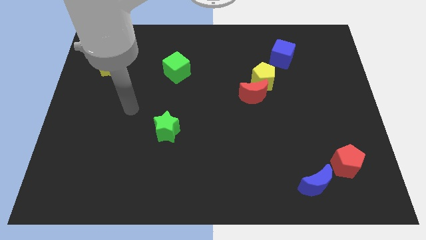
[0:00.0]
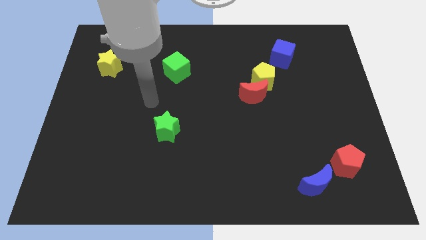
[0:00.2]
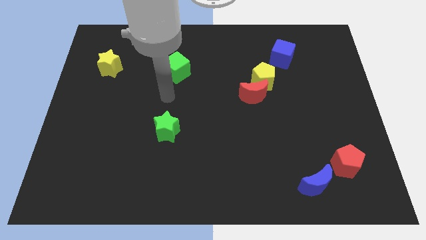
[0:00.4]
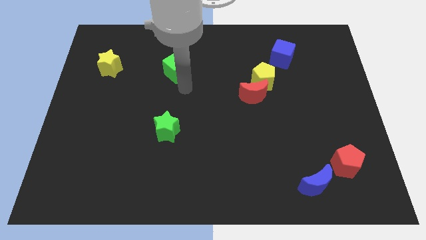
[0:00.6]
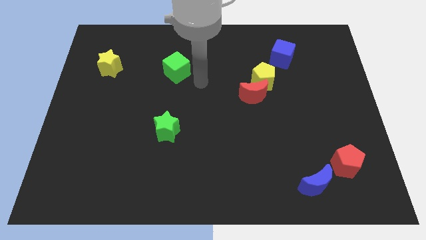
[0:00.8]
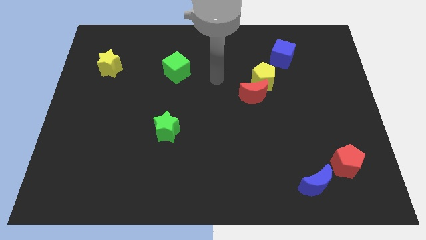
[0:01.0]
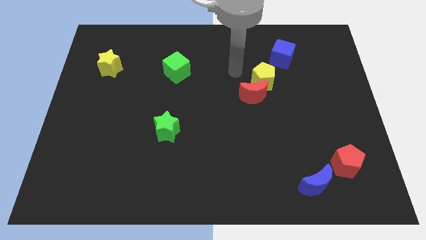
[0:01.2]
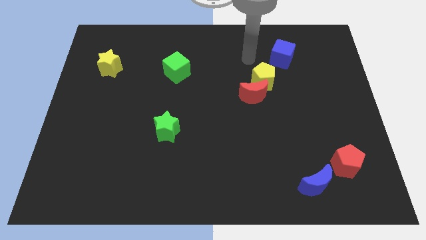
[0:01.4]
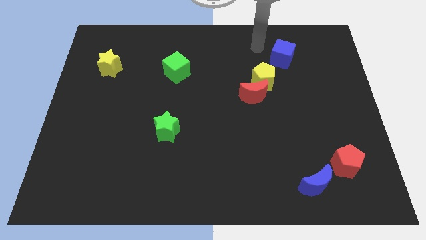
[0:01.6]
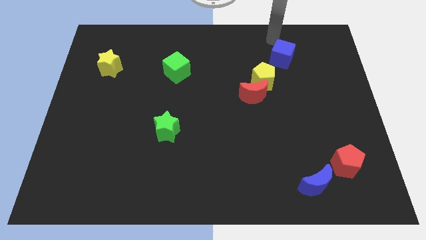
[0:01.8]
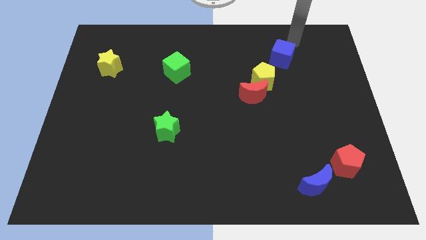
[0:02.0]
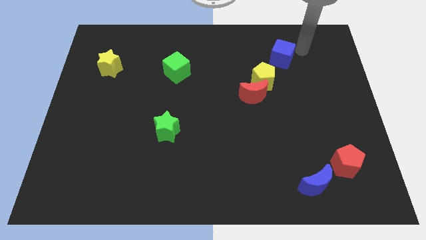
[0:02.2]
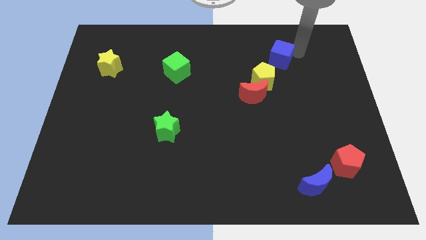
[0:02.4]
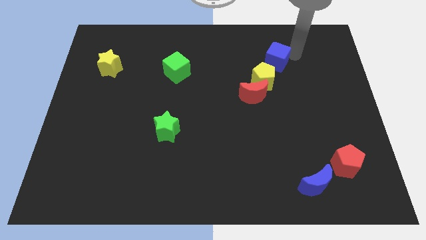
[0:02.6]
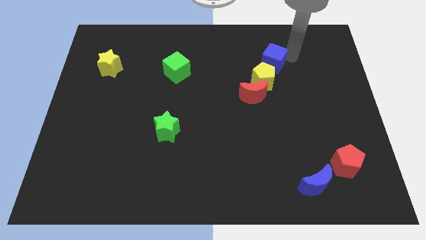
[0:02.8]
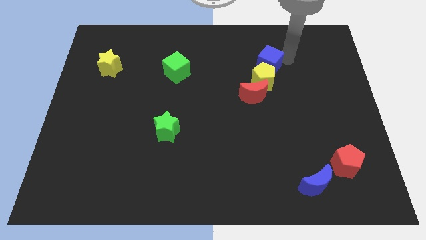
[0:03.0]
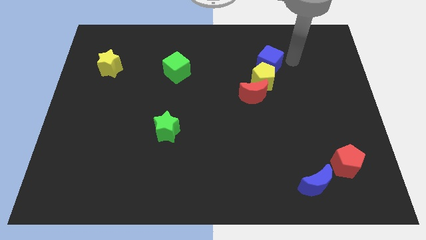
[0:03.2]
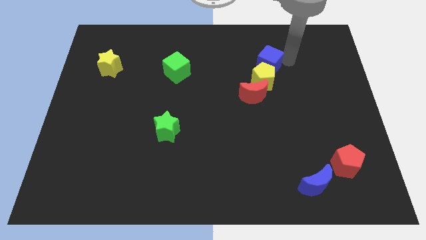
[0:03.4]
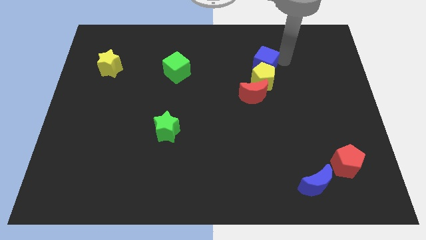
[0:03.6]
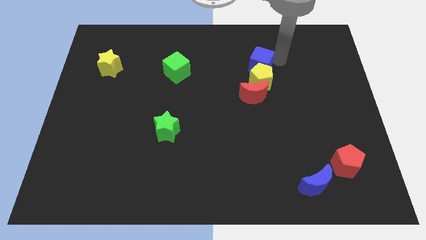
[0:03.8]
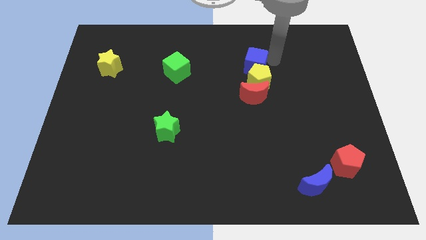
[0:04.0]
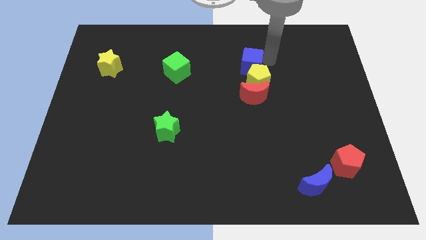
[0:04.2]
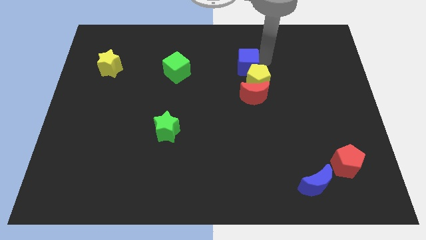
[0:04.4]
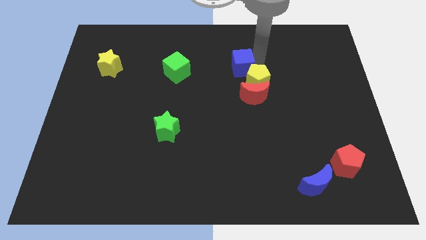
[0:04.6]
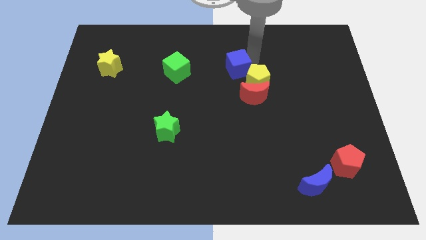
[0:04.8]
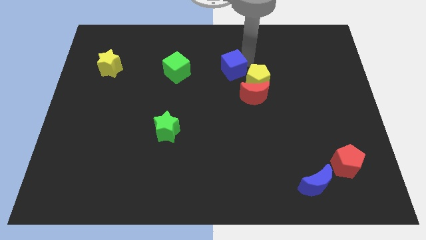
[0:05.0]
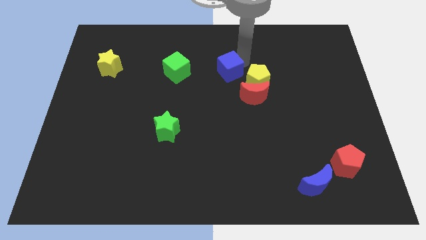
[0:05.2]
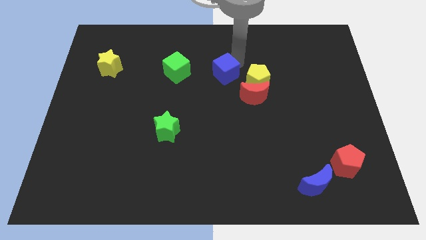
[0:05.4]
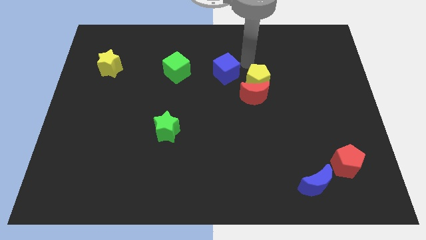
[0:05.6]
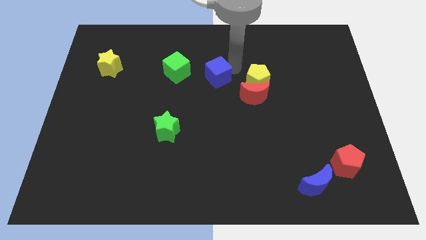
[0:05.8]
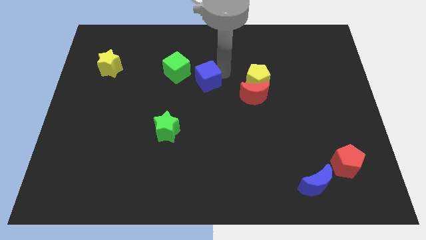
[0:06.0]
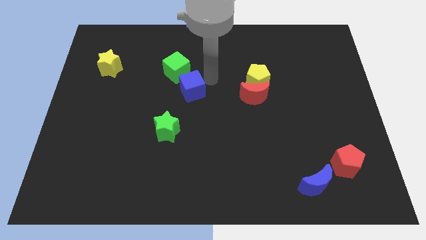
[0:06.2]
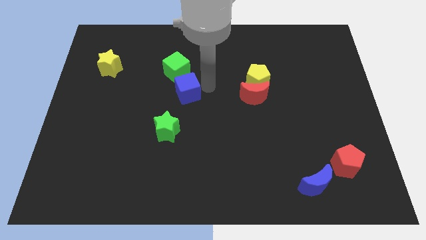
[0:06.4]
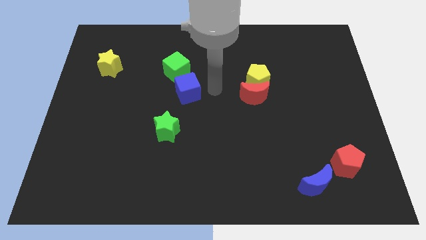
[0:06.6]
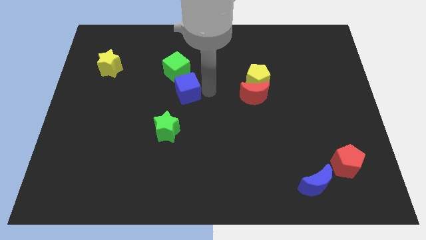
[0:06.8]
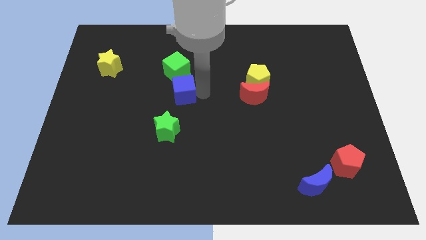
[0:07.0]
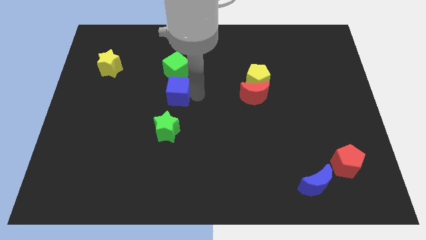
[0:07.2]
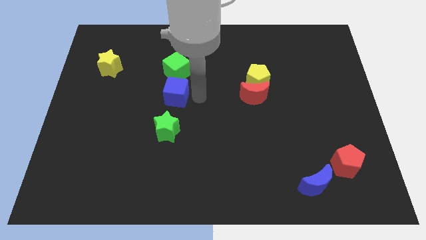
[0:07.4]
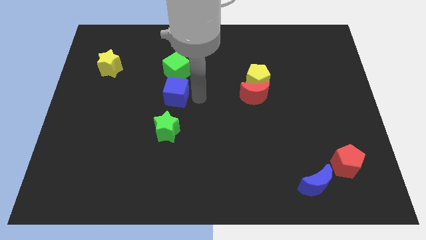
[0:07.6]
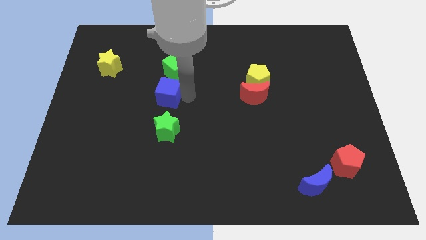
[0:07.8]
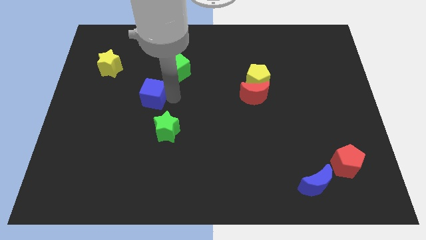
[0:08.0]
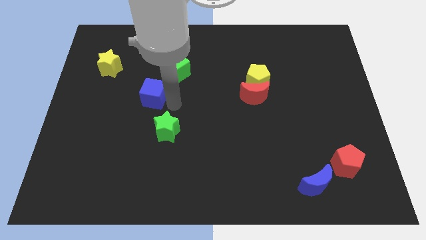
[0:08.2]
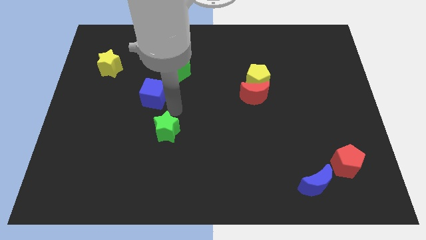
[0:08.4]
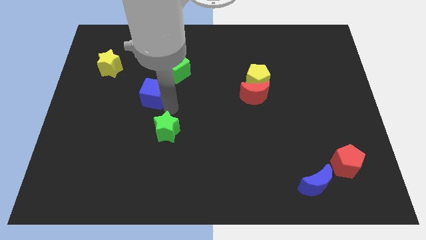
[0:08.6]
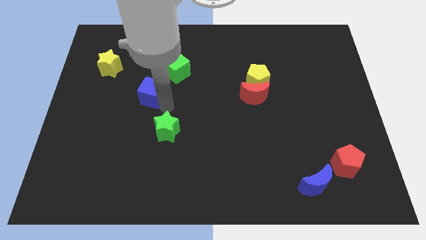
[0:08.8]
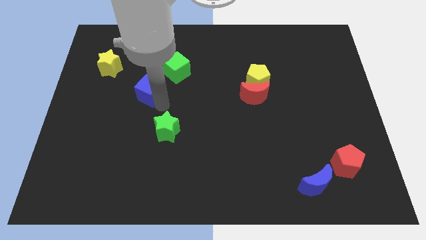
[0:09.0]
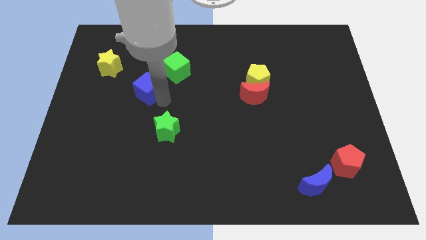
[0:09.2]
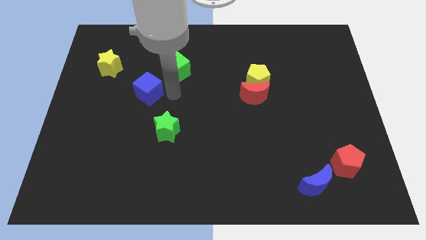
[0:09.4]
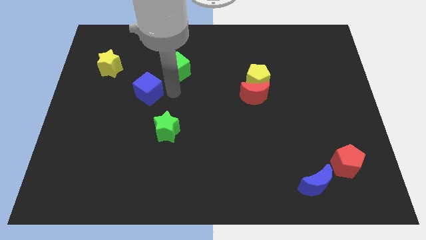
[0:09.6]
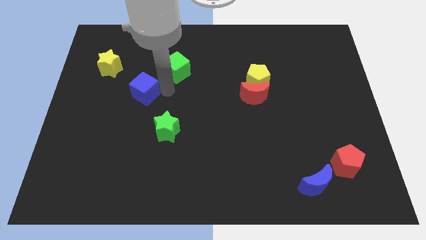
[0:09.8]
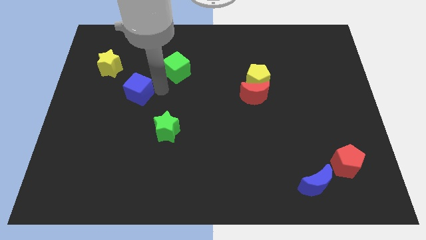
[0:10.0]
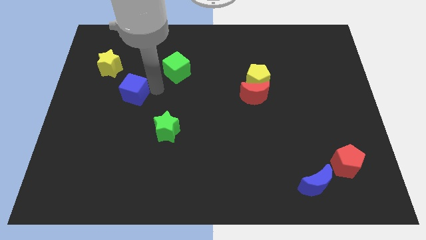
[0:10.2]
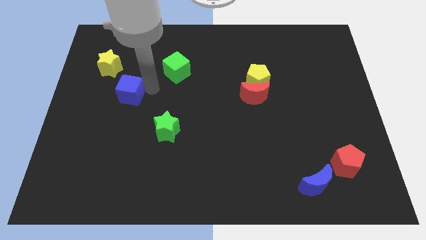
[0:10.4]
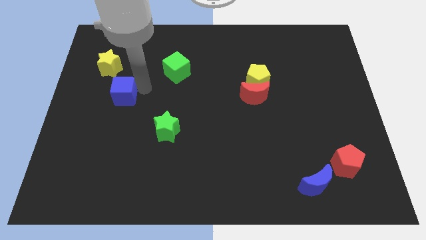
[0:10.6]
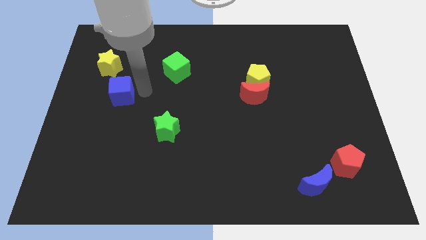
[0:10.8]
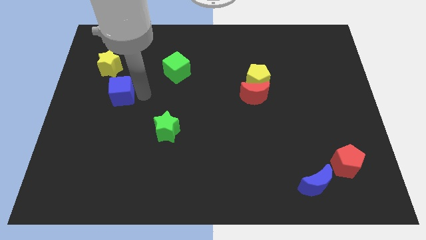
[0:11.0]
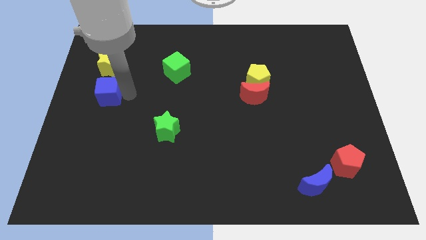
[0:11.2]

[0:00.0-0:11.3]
slide the blue cube to the left side
